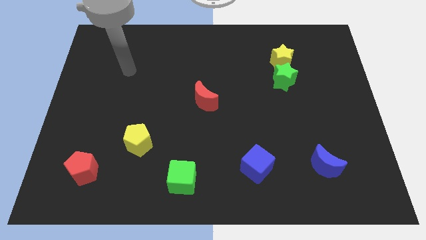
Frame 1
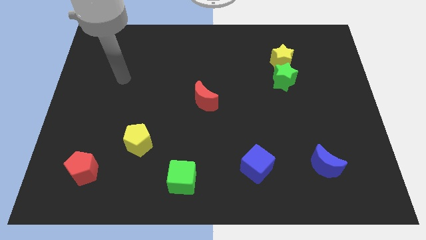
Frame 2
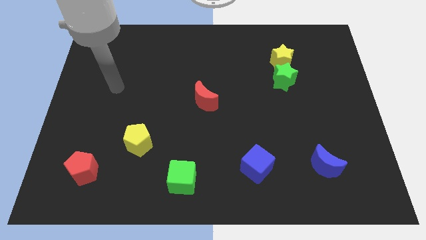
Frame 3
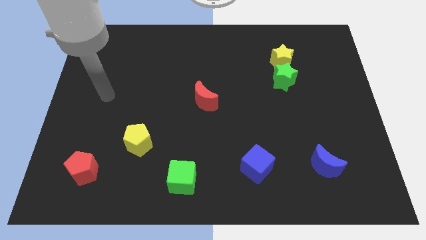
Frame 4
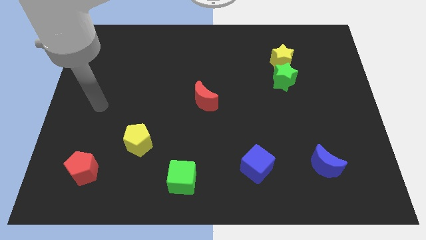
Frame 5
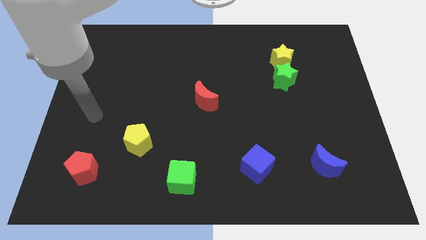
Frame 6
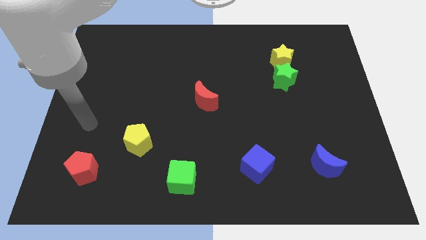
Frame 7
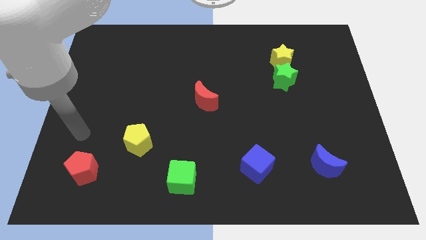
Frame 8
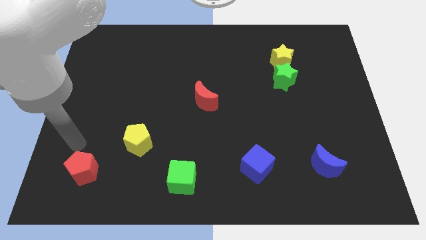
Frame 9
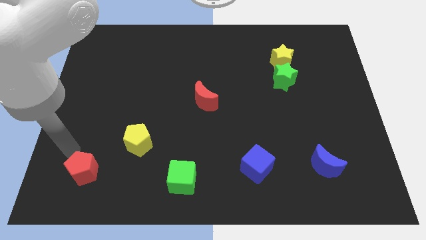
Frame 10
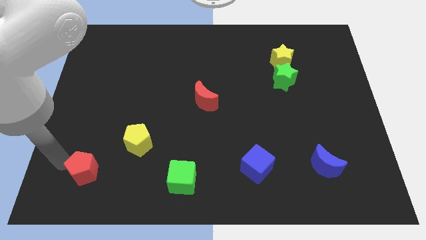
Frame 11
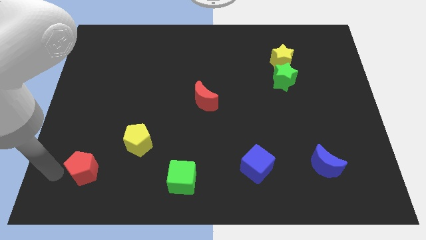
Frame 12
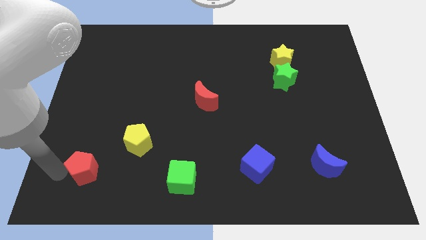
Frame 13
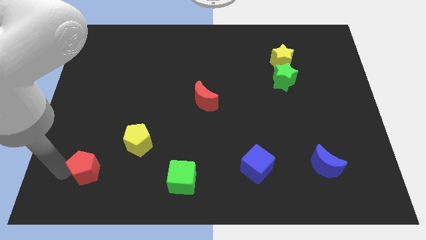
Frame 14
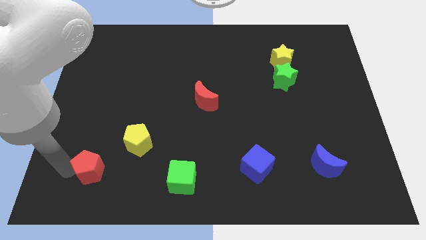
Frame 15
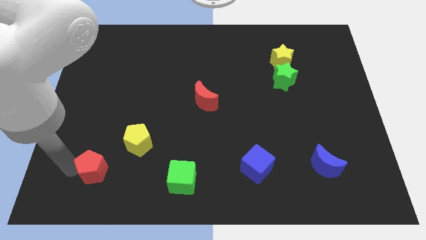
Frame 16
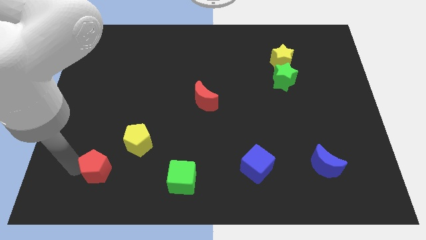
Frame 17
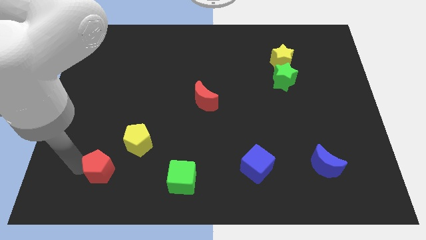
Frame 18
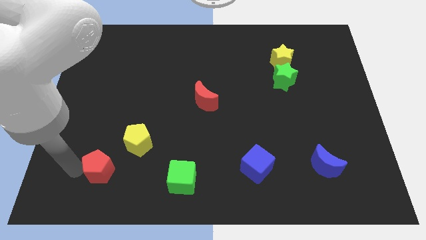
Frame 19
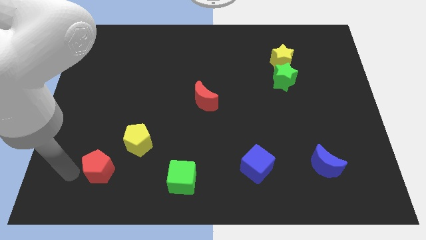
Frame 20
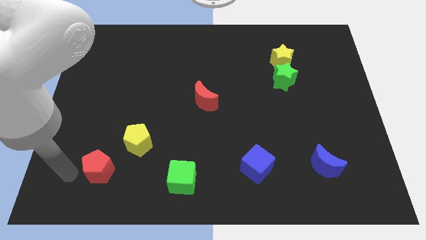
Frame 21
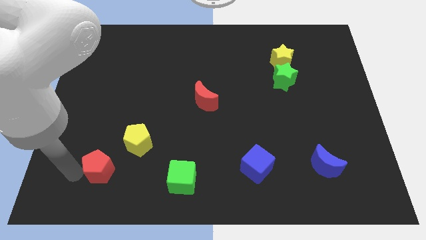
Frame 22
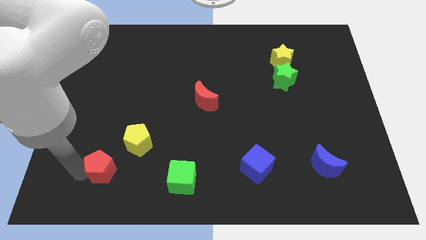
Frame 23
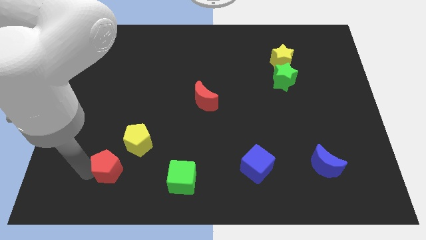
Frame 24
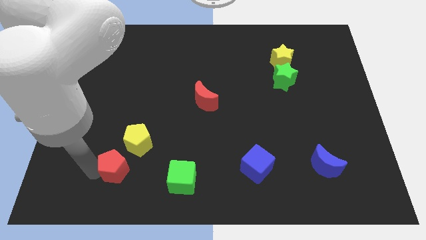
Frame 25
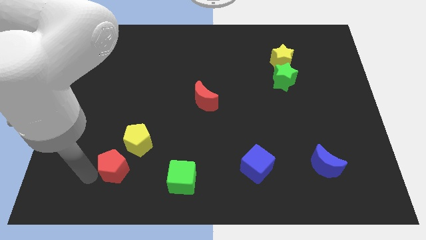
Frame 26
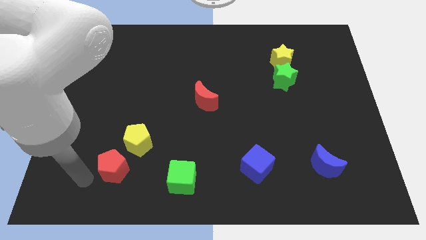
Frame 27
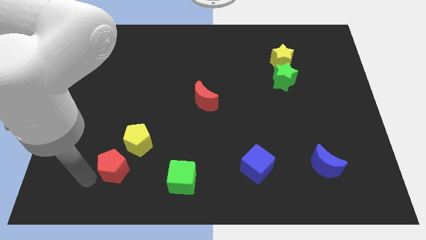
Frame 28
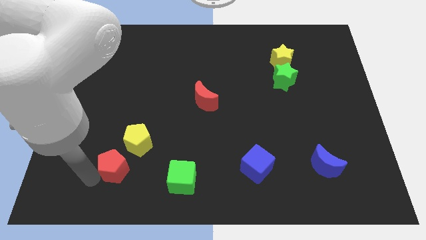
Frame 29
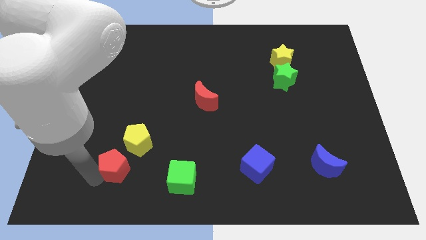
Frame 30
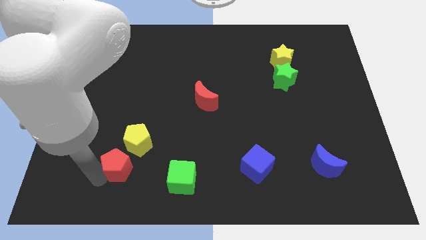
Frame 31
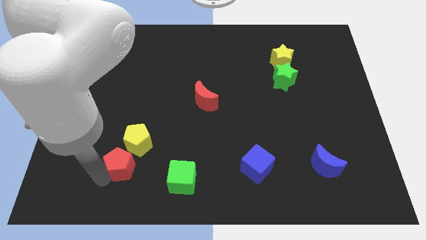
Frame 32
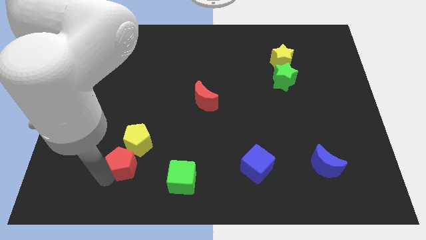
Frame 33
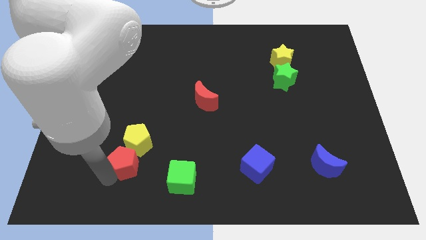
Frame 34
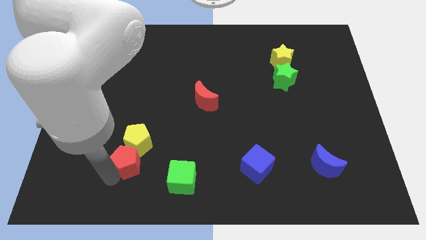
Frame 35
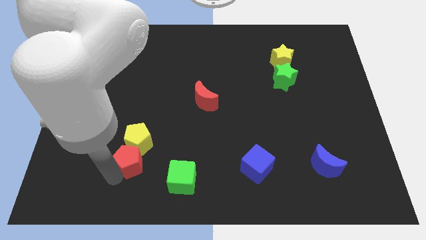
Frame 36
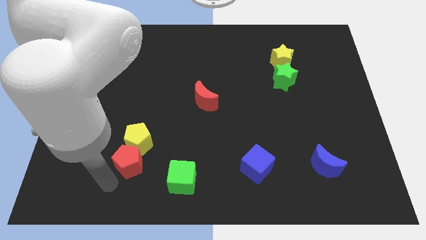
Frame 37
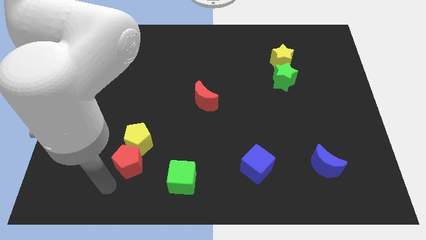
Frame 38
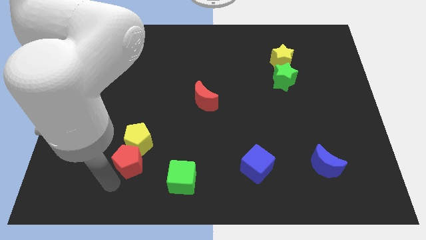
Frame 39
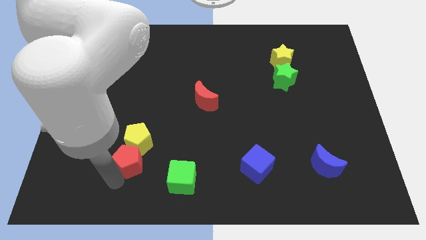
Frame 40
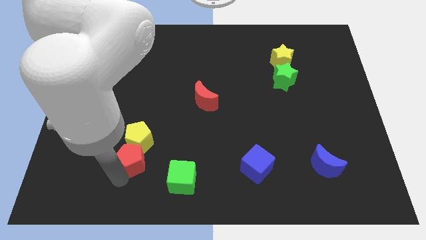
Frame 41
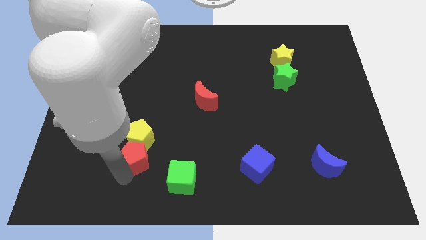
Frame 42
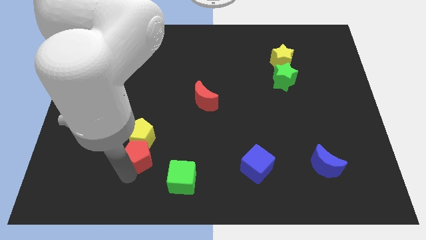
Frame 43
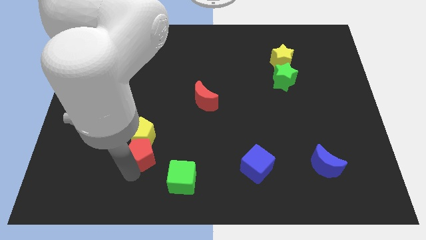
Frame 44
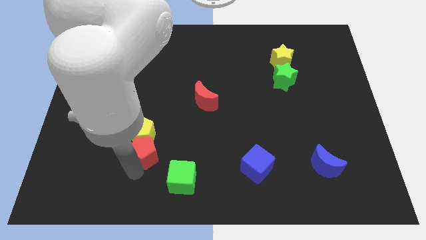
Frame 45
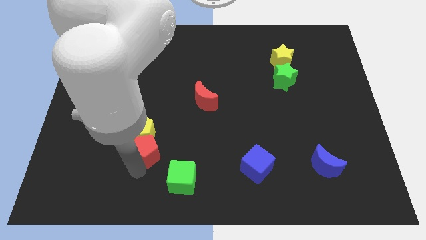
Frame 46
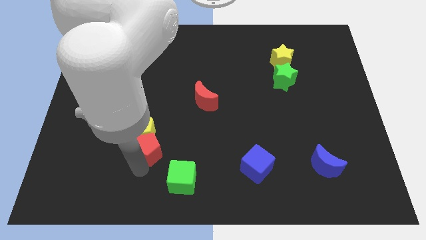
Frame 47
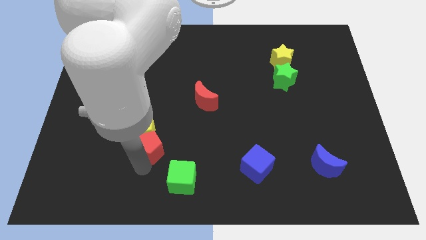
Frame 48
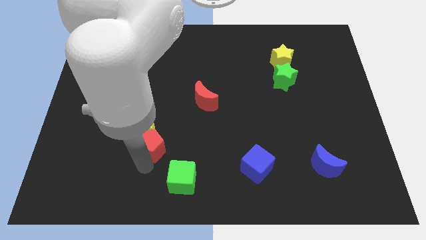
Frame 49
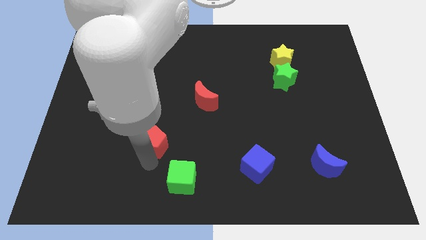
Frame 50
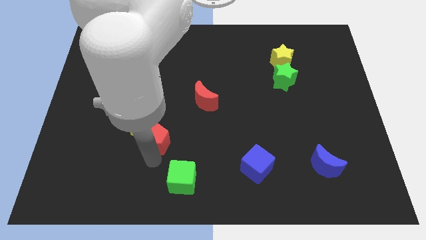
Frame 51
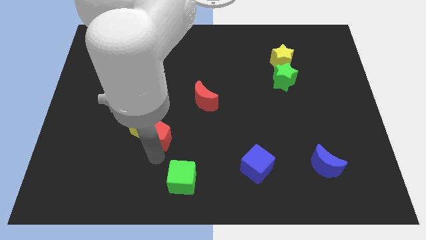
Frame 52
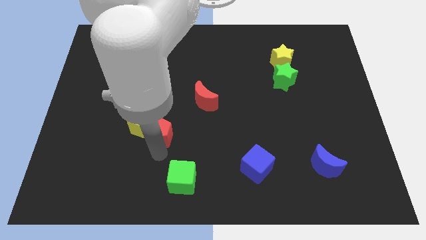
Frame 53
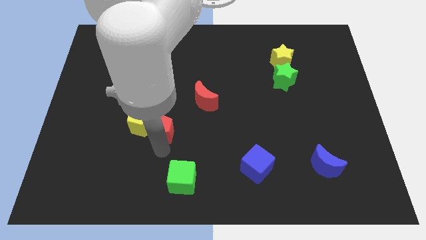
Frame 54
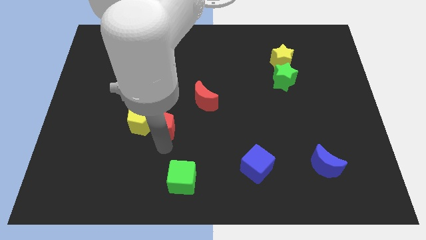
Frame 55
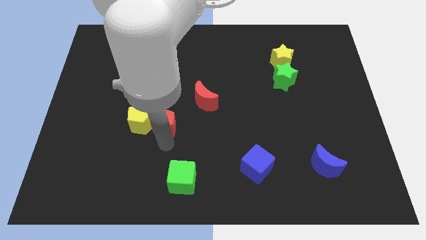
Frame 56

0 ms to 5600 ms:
put the red pentagon diagonally up and to the right of the yellow pentagon

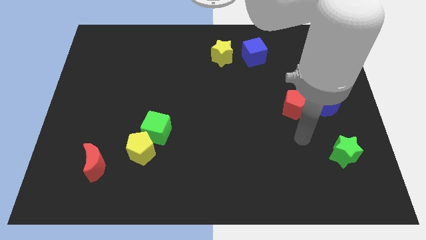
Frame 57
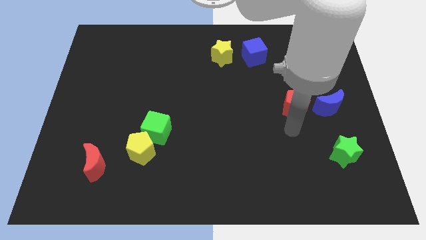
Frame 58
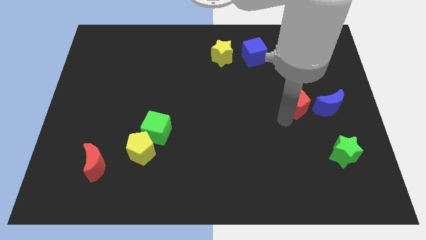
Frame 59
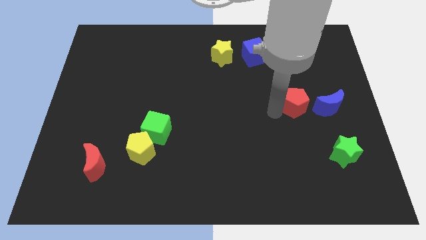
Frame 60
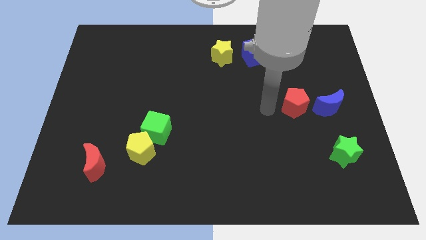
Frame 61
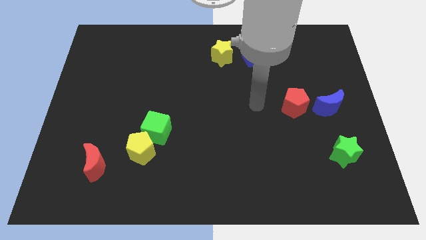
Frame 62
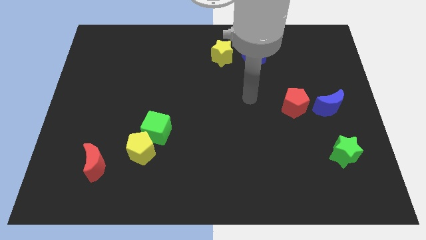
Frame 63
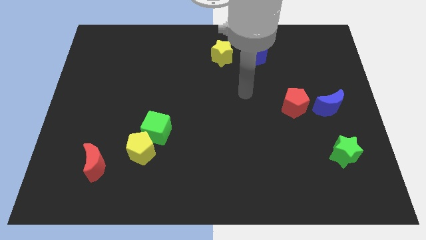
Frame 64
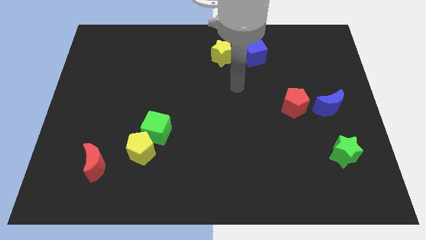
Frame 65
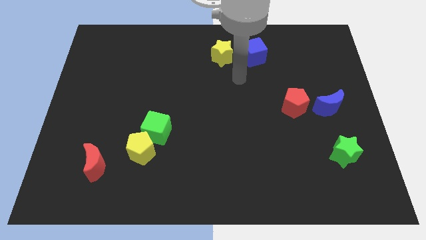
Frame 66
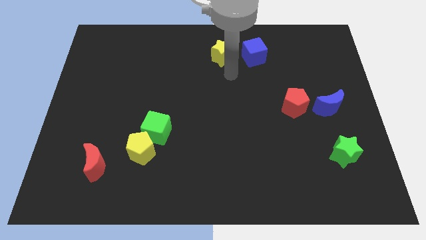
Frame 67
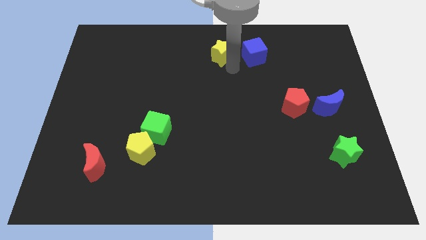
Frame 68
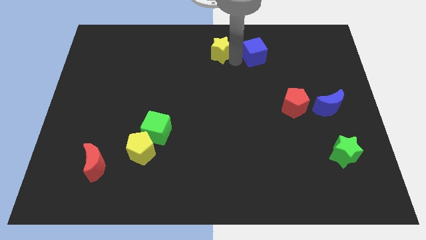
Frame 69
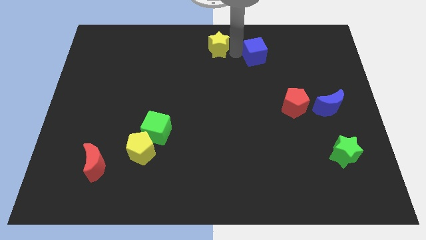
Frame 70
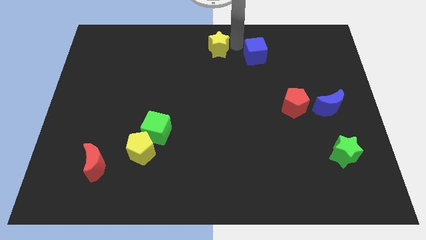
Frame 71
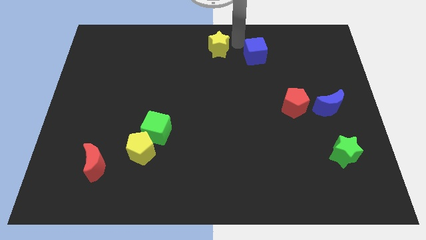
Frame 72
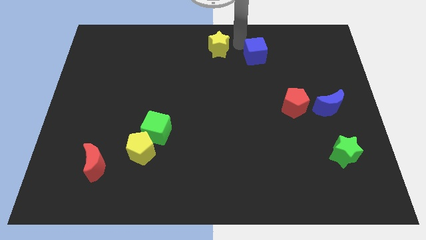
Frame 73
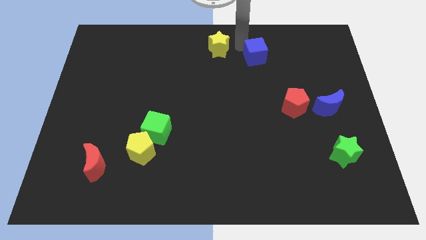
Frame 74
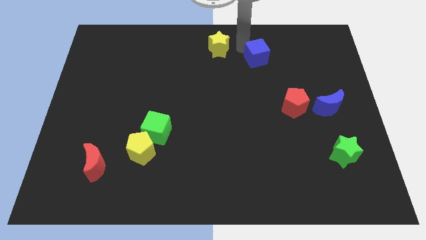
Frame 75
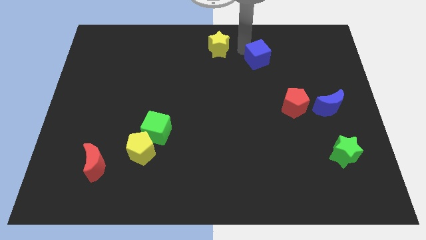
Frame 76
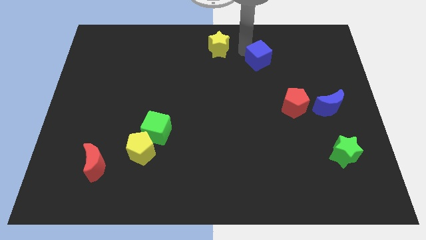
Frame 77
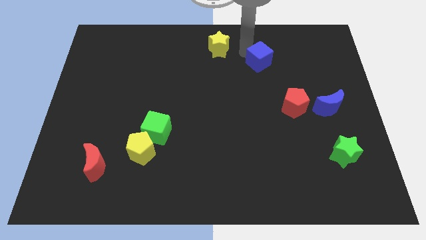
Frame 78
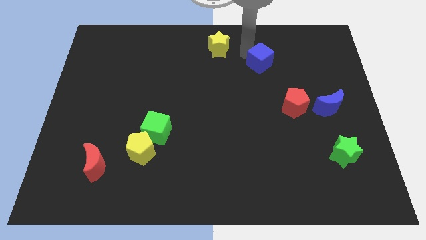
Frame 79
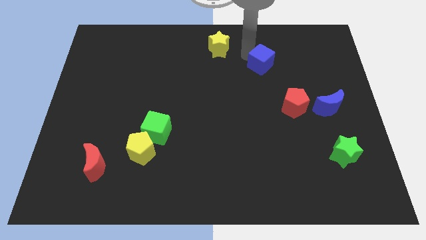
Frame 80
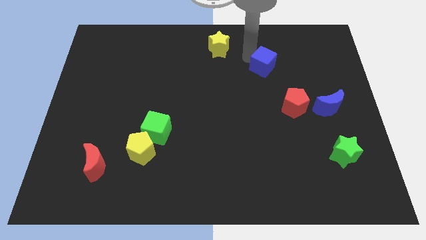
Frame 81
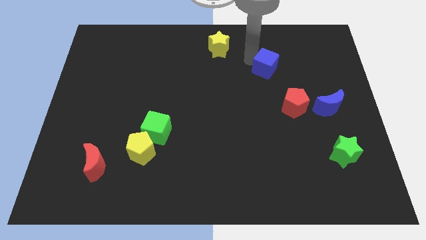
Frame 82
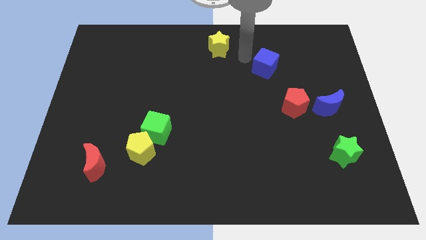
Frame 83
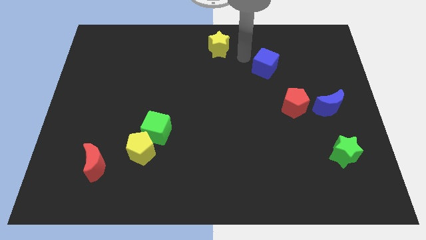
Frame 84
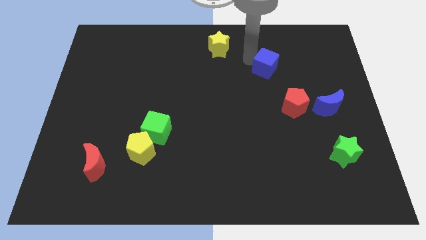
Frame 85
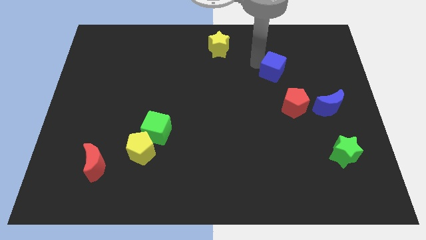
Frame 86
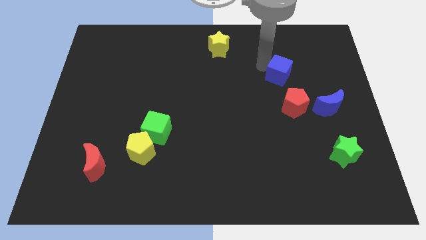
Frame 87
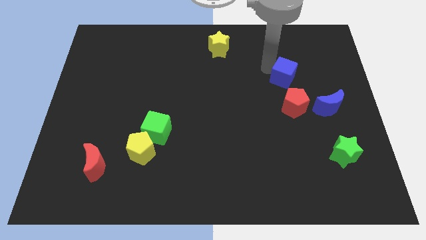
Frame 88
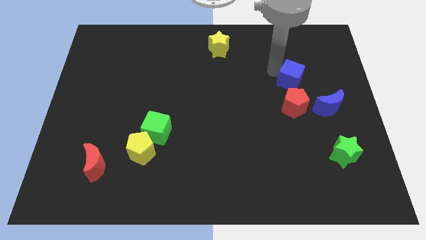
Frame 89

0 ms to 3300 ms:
put the blue cube to the top left side of the blue moon
